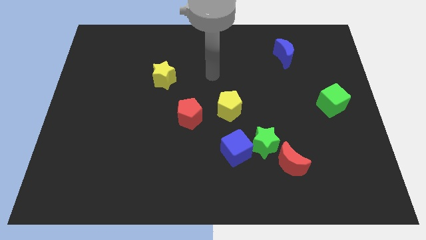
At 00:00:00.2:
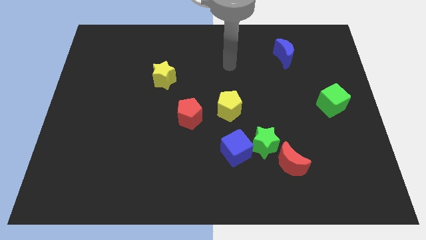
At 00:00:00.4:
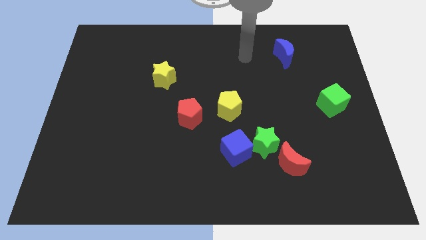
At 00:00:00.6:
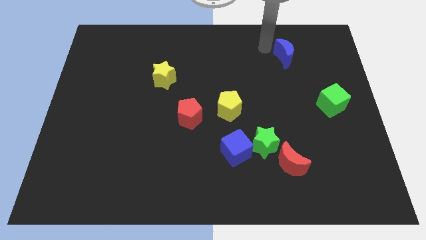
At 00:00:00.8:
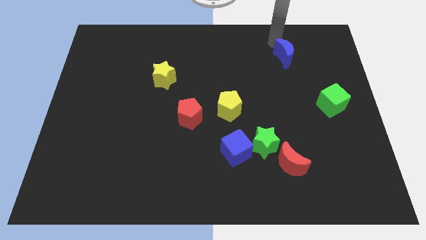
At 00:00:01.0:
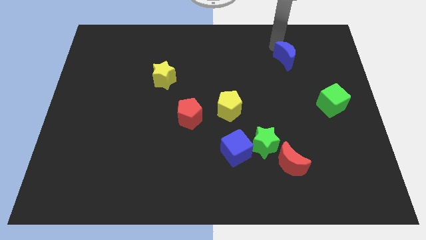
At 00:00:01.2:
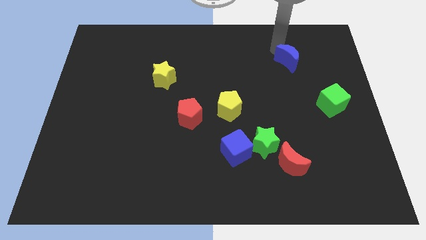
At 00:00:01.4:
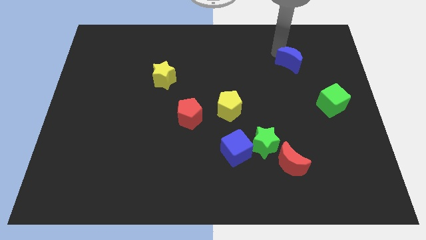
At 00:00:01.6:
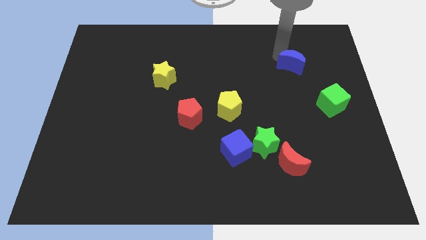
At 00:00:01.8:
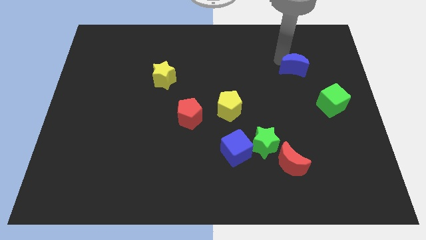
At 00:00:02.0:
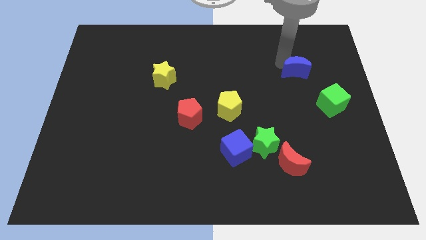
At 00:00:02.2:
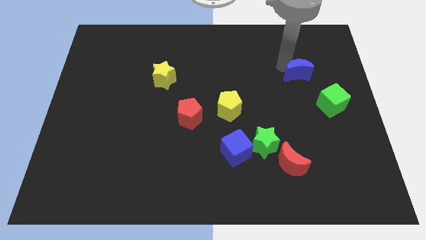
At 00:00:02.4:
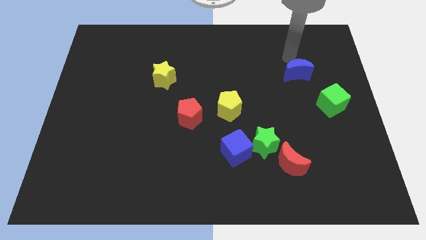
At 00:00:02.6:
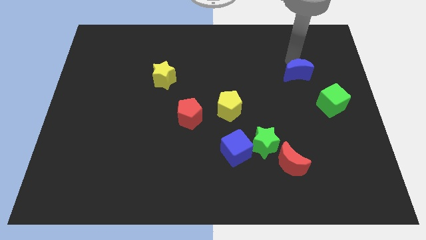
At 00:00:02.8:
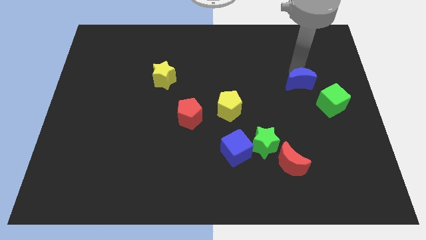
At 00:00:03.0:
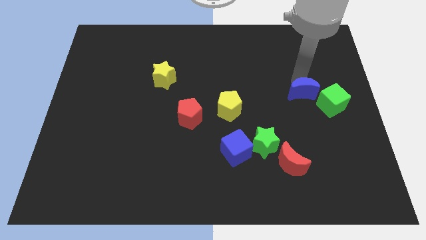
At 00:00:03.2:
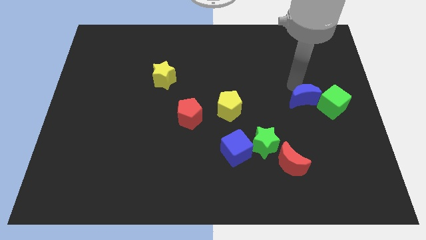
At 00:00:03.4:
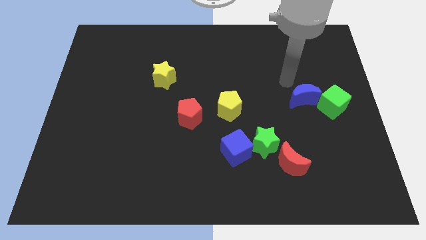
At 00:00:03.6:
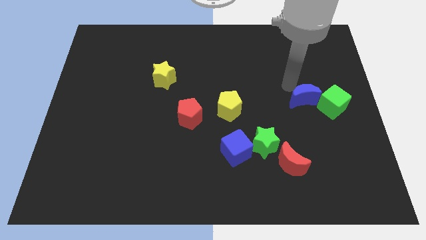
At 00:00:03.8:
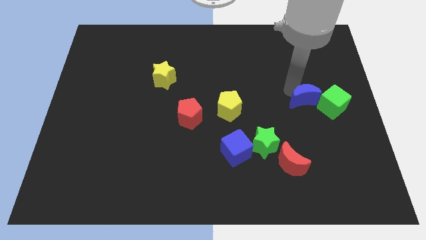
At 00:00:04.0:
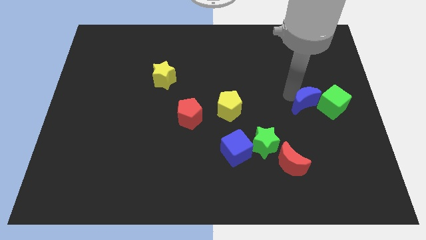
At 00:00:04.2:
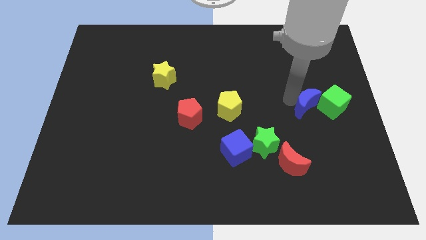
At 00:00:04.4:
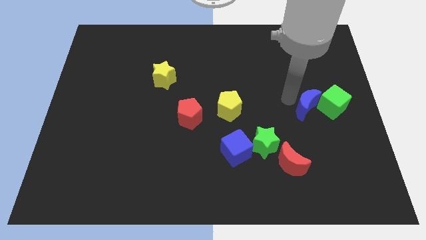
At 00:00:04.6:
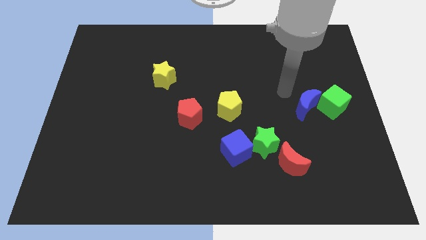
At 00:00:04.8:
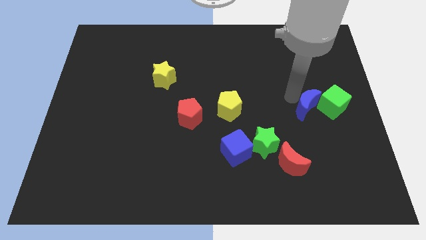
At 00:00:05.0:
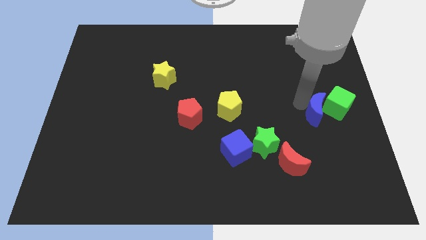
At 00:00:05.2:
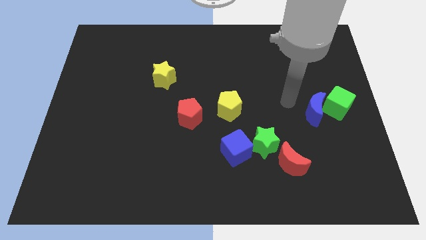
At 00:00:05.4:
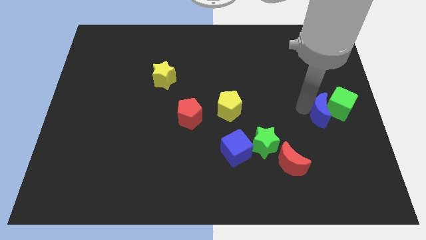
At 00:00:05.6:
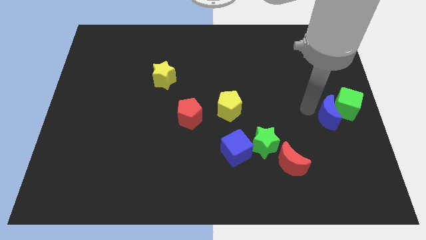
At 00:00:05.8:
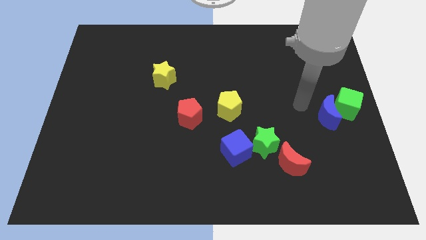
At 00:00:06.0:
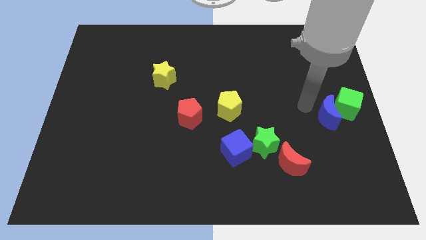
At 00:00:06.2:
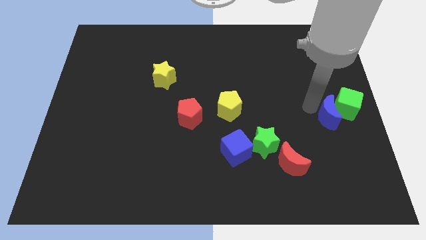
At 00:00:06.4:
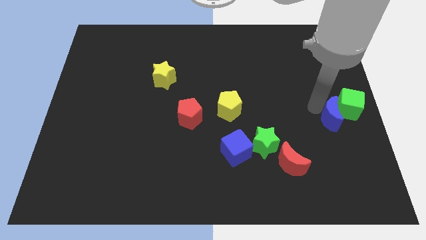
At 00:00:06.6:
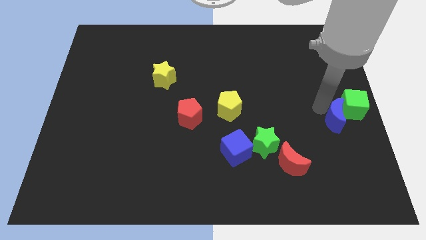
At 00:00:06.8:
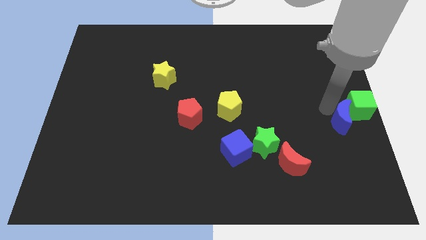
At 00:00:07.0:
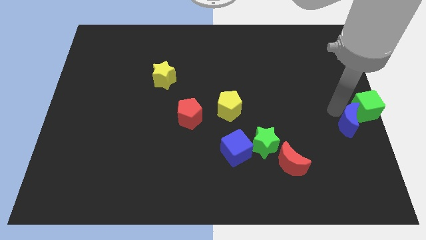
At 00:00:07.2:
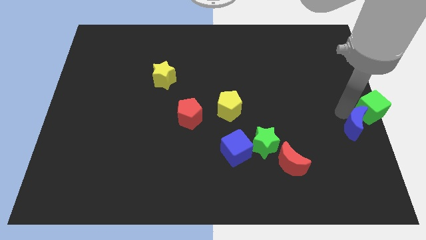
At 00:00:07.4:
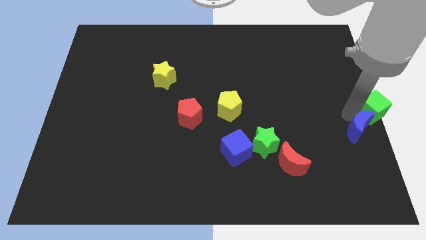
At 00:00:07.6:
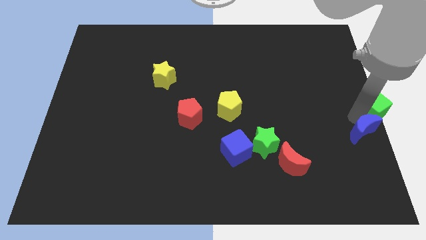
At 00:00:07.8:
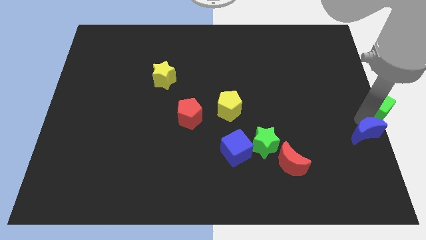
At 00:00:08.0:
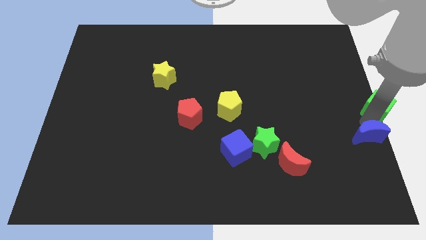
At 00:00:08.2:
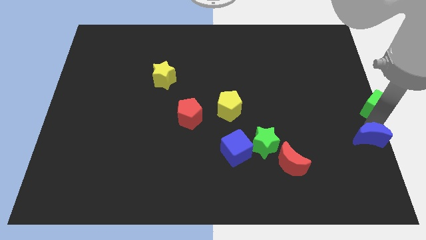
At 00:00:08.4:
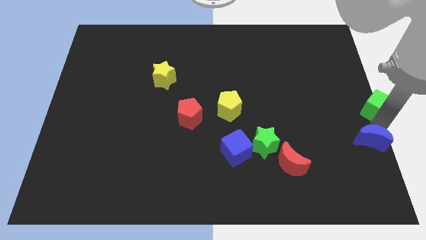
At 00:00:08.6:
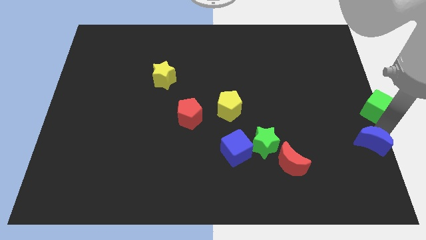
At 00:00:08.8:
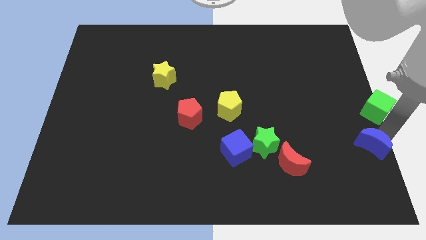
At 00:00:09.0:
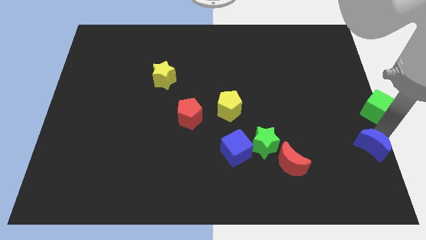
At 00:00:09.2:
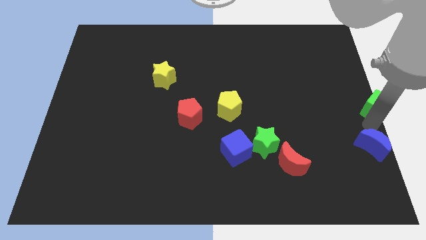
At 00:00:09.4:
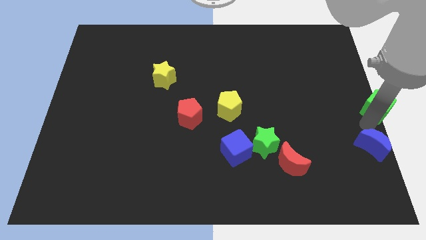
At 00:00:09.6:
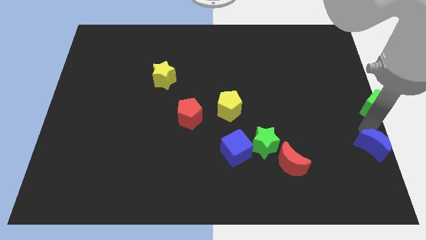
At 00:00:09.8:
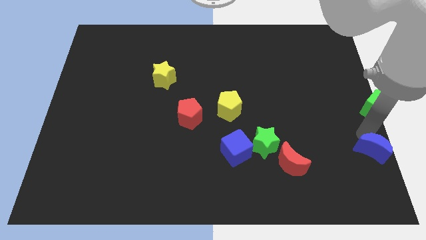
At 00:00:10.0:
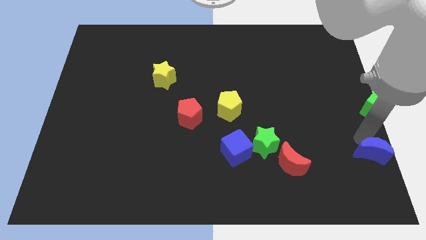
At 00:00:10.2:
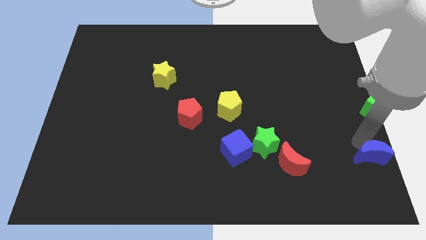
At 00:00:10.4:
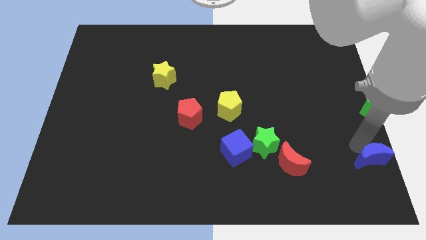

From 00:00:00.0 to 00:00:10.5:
push the blue moon to the bottom right of the board

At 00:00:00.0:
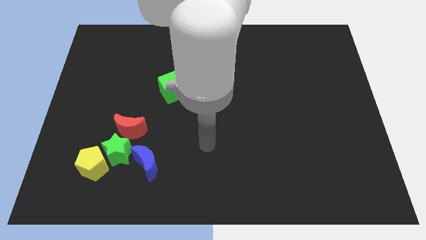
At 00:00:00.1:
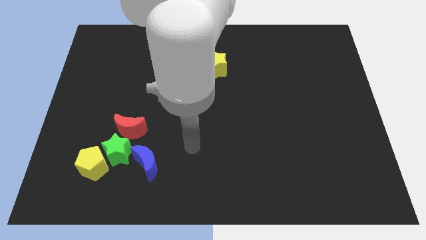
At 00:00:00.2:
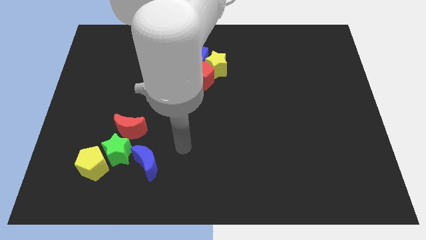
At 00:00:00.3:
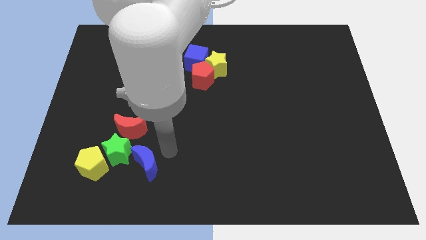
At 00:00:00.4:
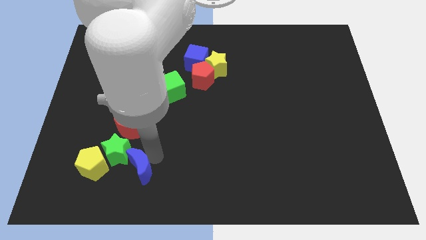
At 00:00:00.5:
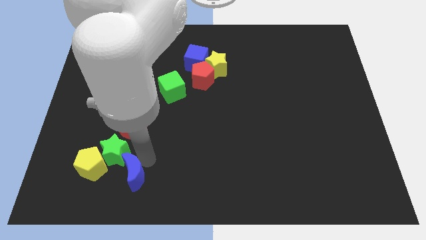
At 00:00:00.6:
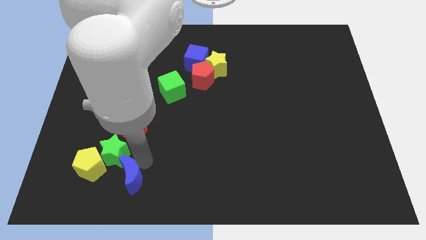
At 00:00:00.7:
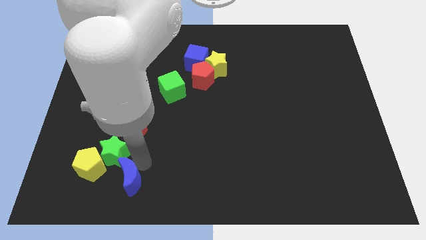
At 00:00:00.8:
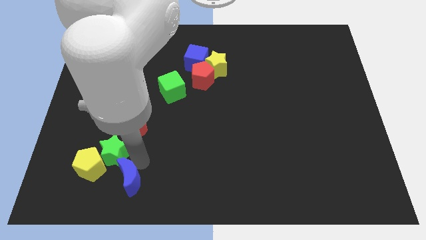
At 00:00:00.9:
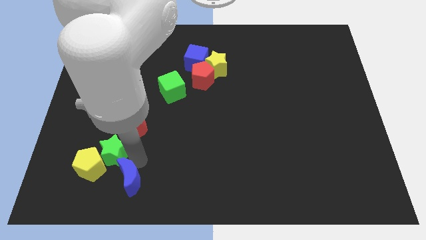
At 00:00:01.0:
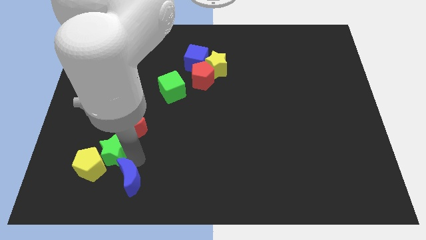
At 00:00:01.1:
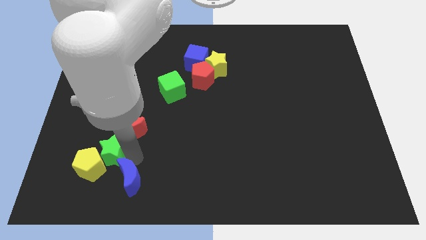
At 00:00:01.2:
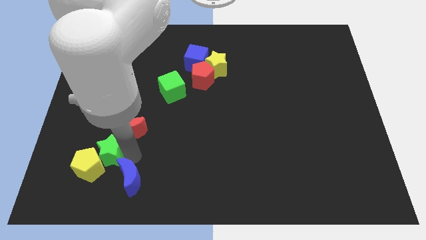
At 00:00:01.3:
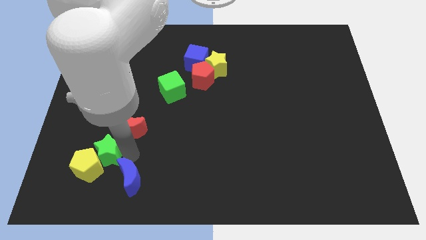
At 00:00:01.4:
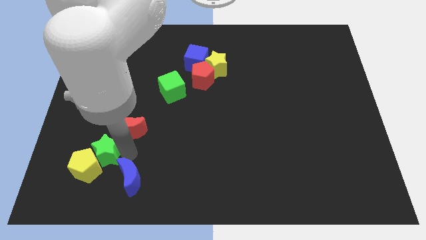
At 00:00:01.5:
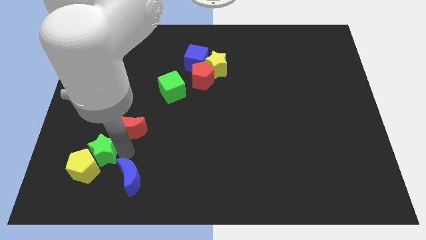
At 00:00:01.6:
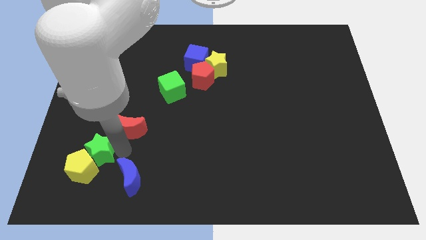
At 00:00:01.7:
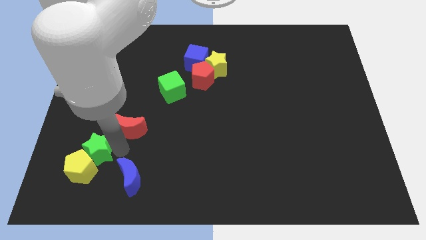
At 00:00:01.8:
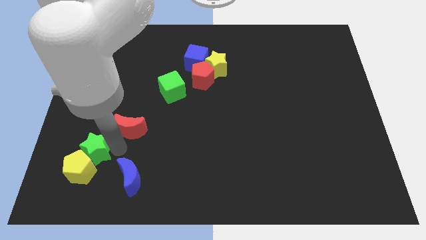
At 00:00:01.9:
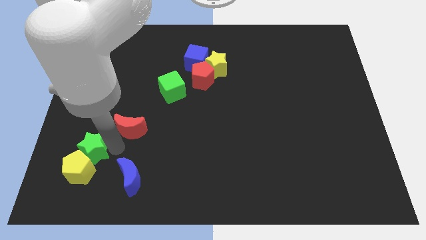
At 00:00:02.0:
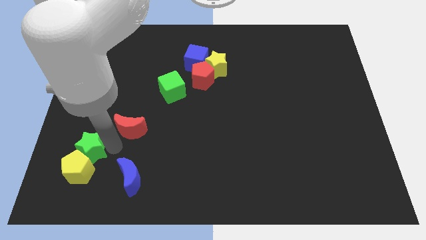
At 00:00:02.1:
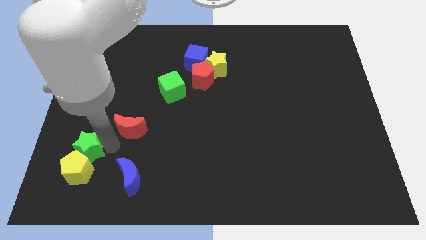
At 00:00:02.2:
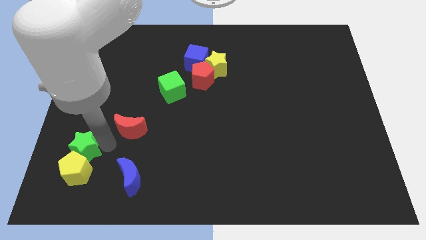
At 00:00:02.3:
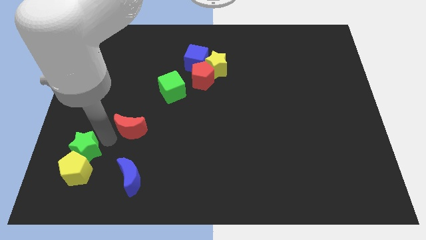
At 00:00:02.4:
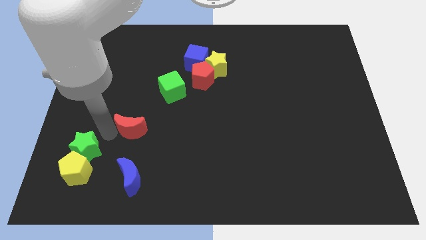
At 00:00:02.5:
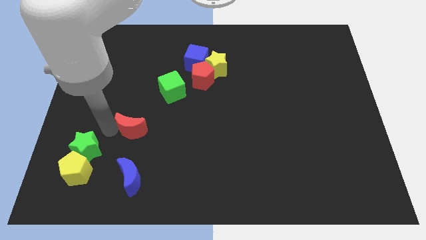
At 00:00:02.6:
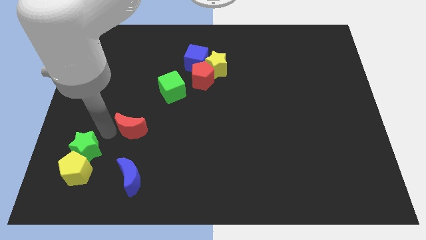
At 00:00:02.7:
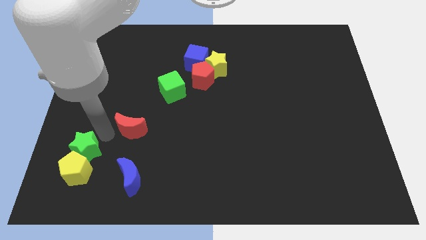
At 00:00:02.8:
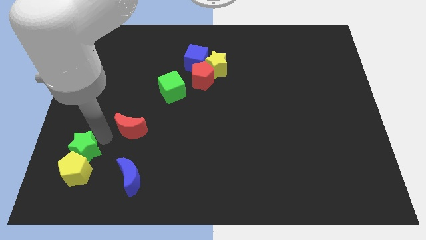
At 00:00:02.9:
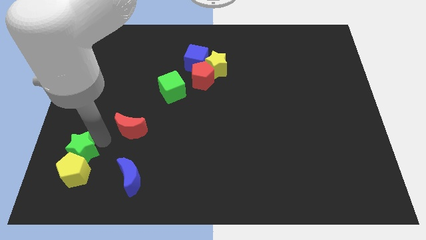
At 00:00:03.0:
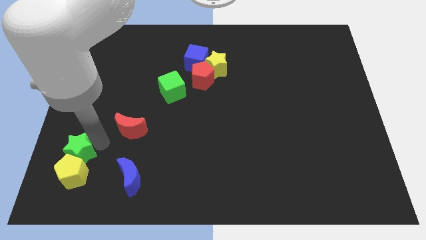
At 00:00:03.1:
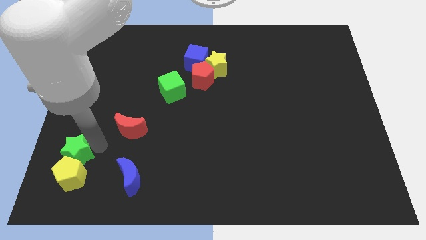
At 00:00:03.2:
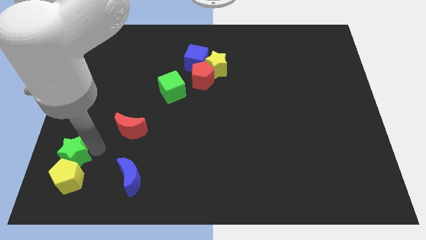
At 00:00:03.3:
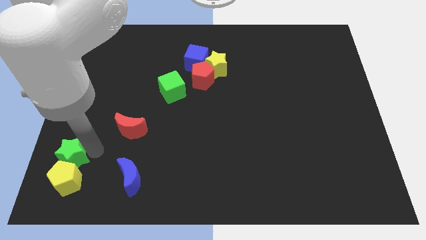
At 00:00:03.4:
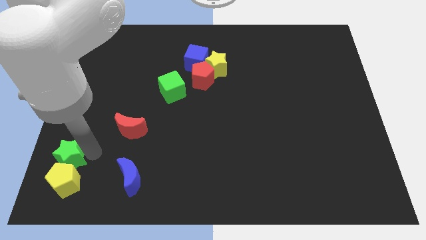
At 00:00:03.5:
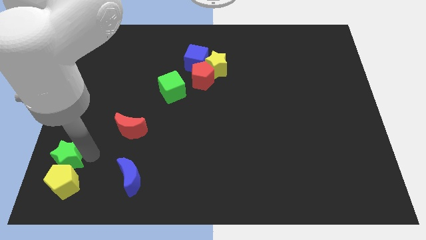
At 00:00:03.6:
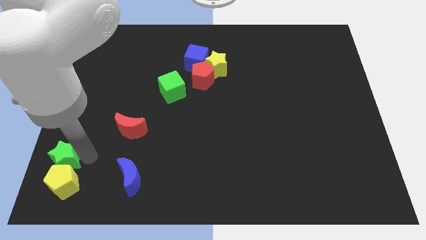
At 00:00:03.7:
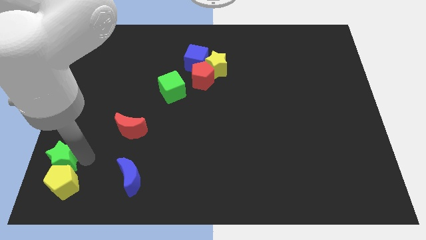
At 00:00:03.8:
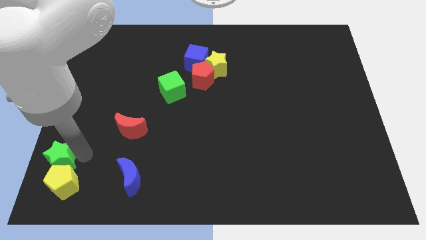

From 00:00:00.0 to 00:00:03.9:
move the green star to the lower left corner
